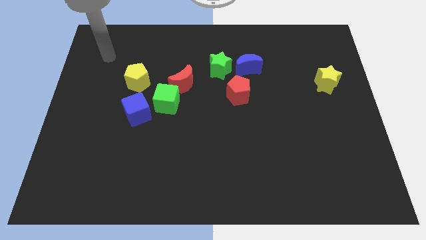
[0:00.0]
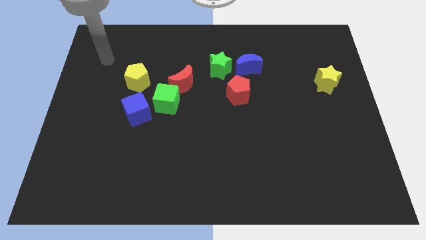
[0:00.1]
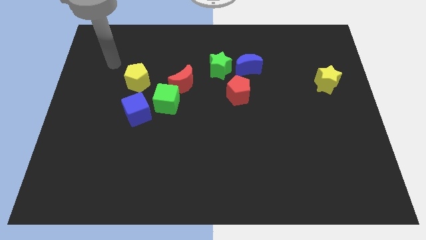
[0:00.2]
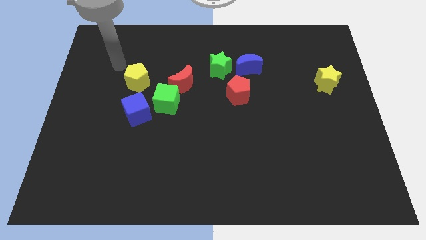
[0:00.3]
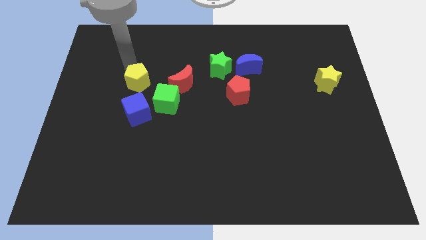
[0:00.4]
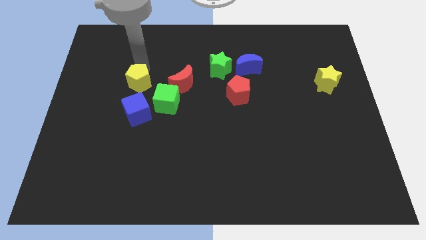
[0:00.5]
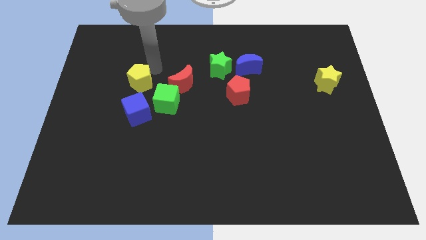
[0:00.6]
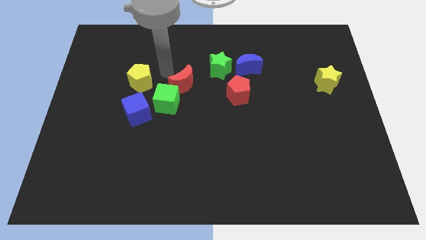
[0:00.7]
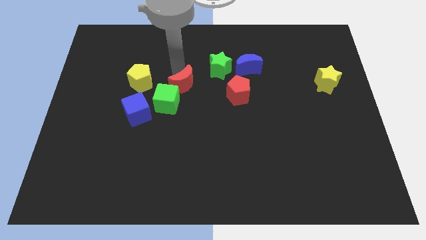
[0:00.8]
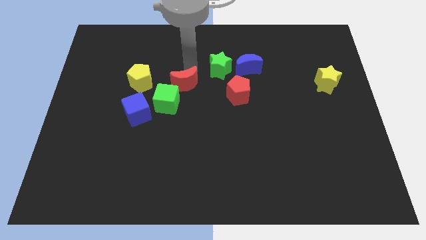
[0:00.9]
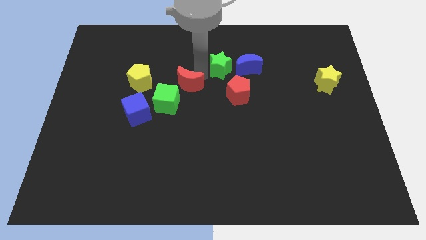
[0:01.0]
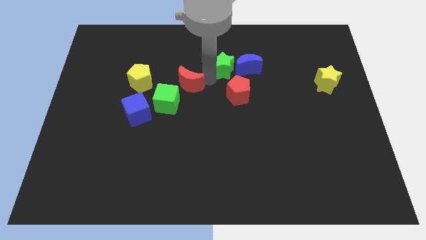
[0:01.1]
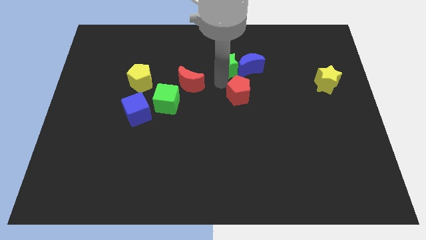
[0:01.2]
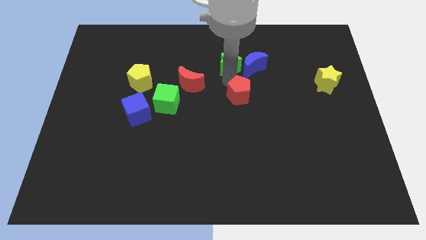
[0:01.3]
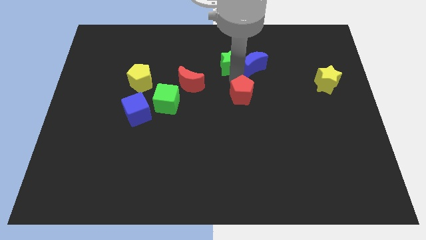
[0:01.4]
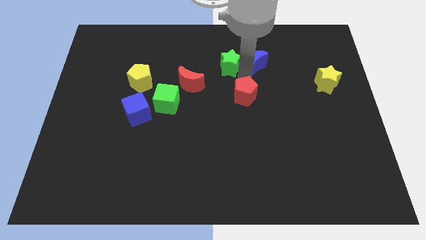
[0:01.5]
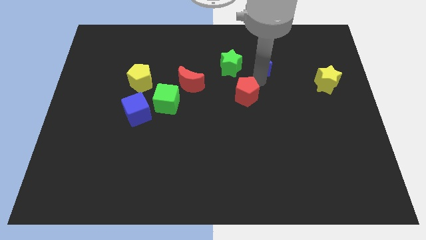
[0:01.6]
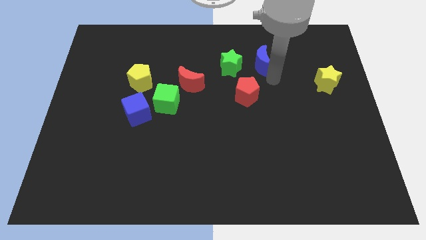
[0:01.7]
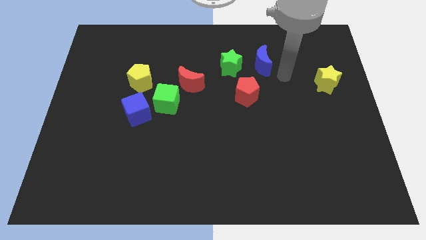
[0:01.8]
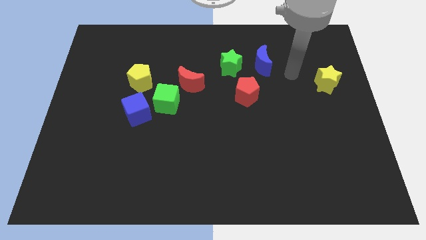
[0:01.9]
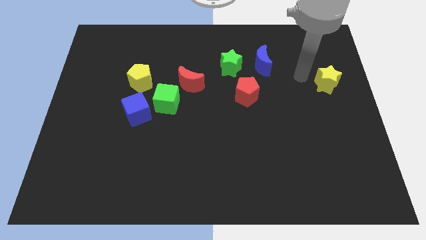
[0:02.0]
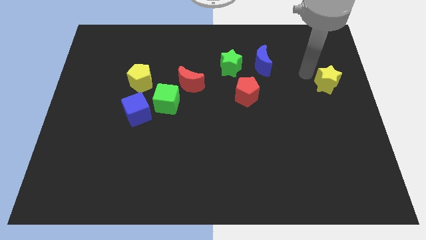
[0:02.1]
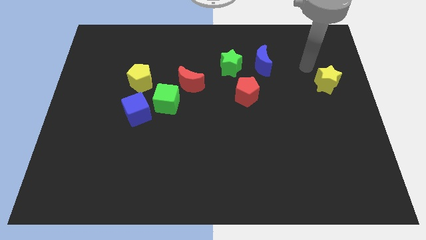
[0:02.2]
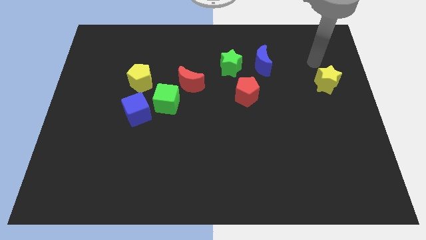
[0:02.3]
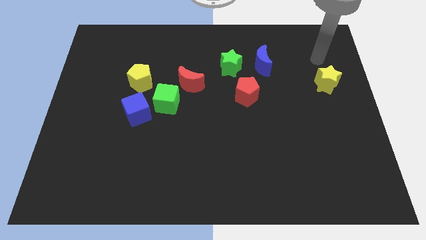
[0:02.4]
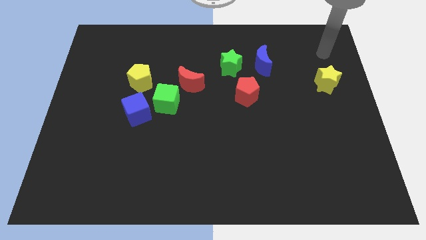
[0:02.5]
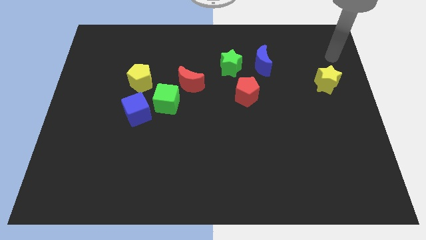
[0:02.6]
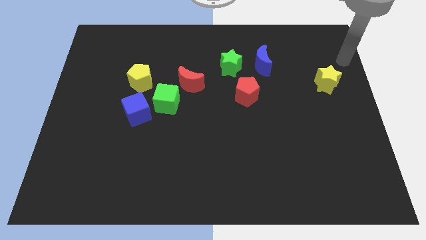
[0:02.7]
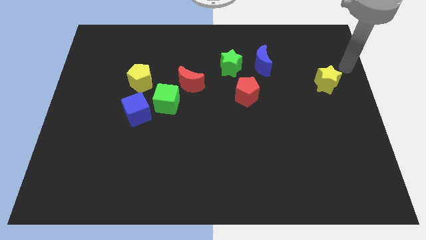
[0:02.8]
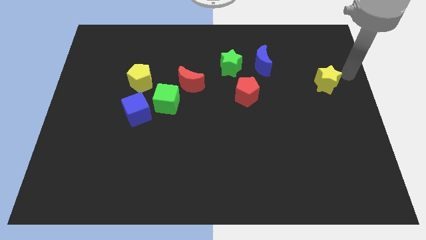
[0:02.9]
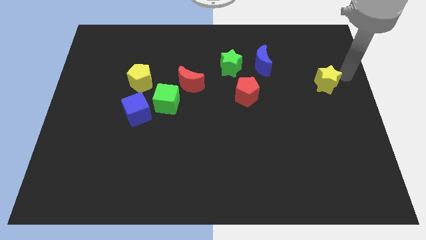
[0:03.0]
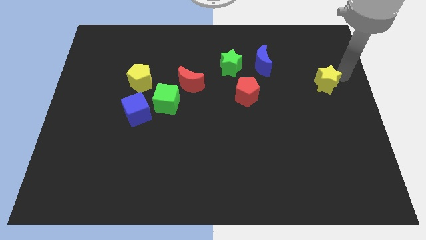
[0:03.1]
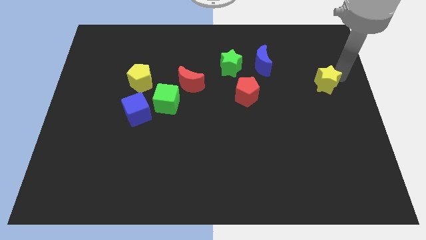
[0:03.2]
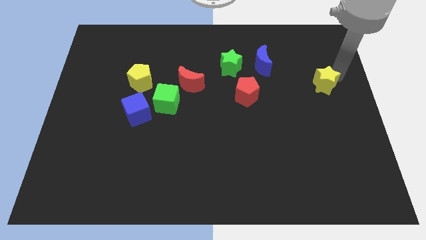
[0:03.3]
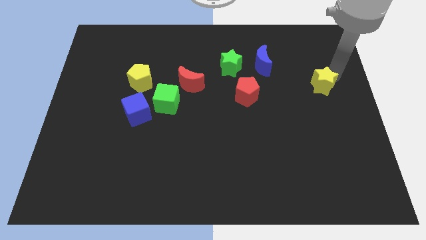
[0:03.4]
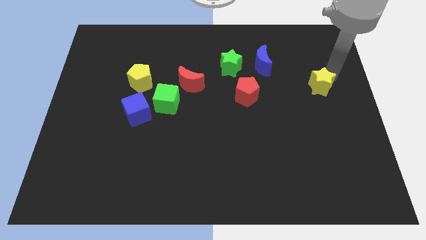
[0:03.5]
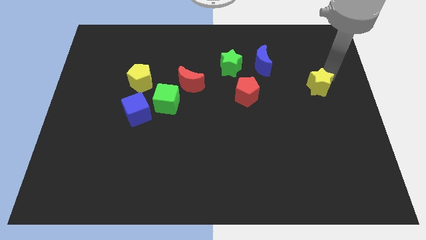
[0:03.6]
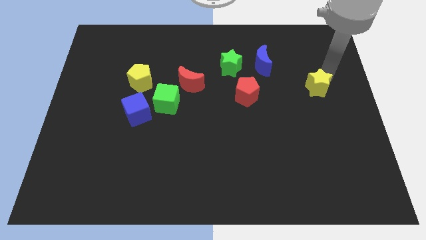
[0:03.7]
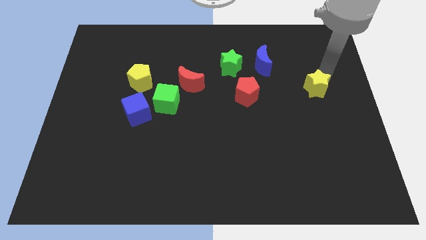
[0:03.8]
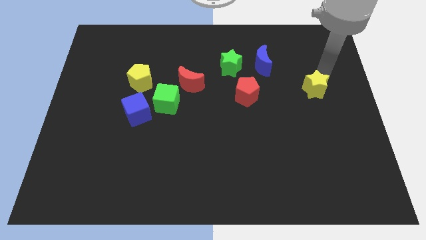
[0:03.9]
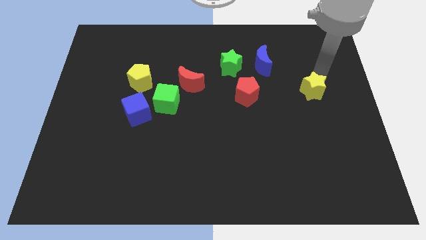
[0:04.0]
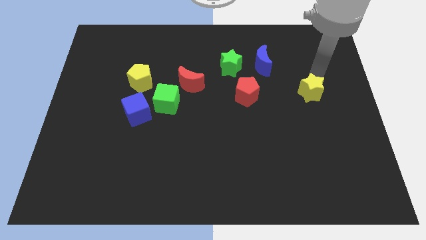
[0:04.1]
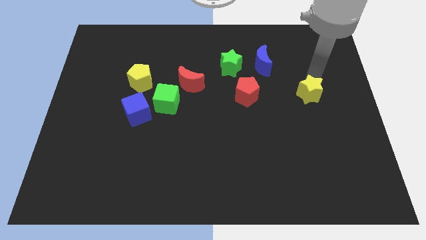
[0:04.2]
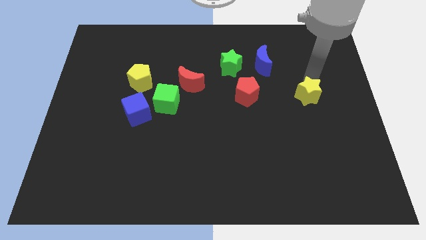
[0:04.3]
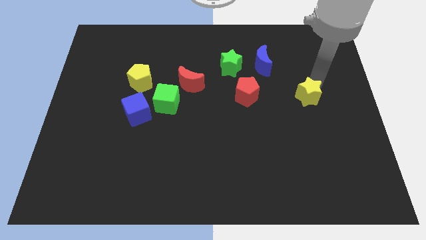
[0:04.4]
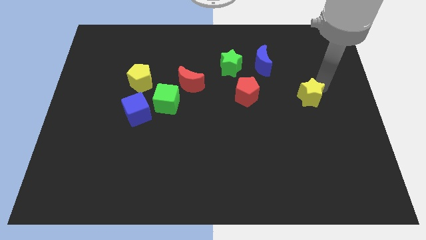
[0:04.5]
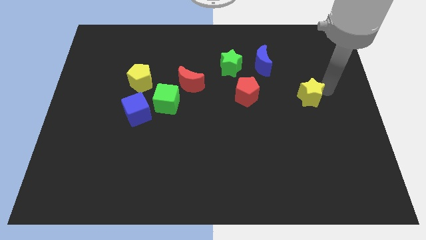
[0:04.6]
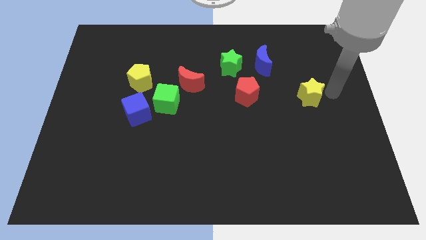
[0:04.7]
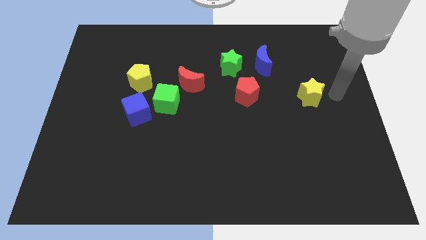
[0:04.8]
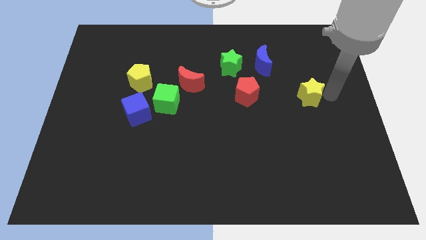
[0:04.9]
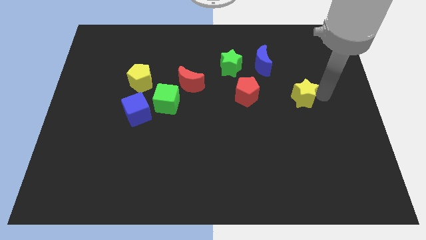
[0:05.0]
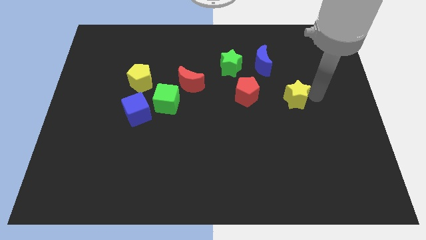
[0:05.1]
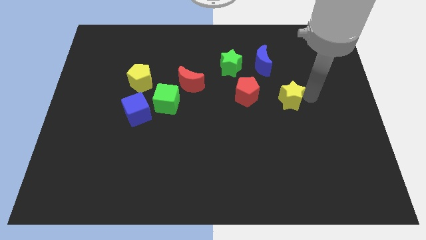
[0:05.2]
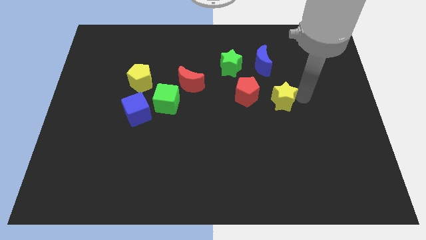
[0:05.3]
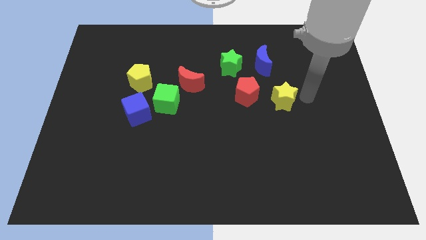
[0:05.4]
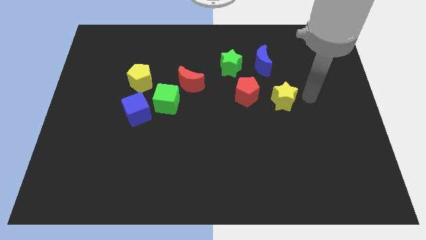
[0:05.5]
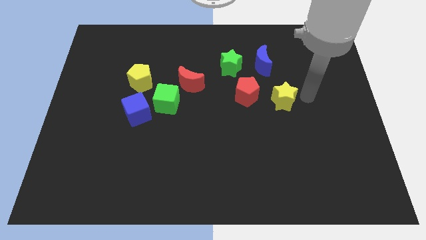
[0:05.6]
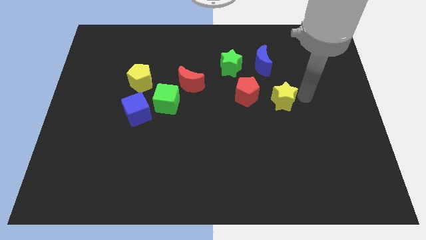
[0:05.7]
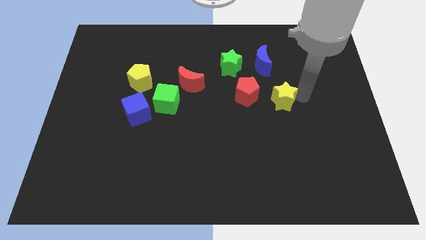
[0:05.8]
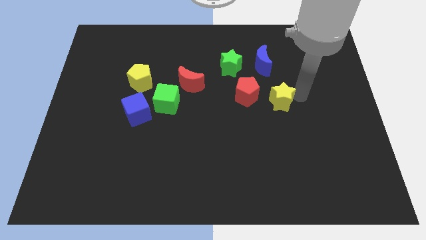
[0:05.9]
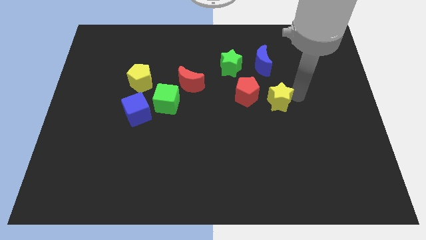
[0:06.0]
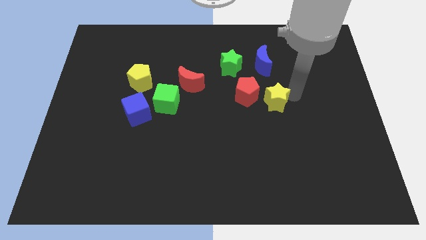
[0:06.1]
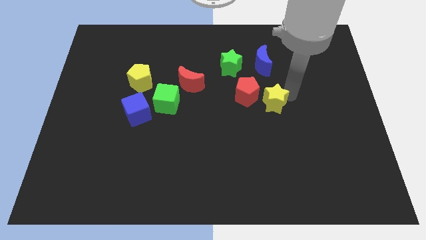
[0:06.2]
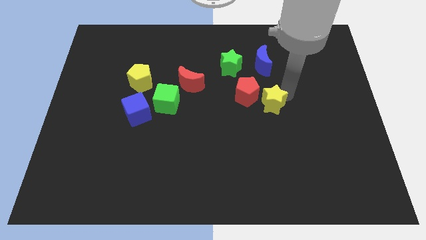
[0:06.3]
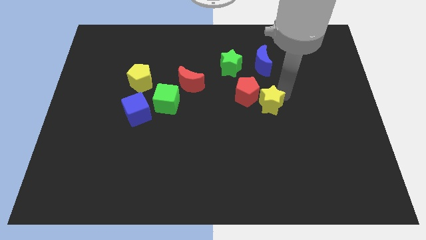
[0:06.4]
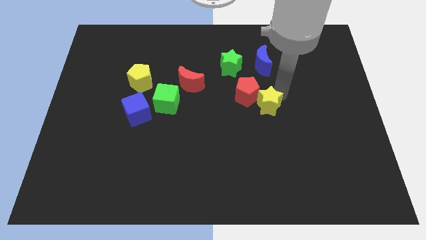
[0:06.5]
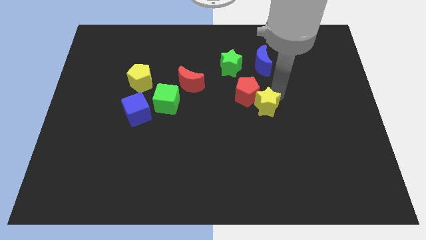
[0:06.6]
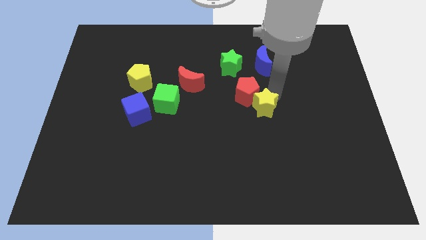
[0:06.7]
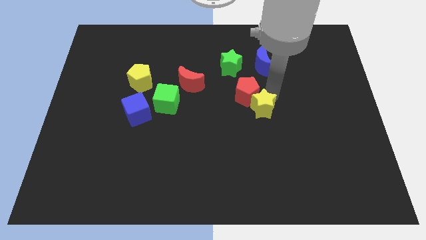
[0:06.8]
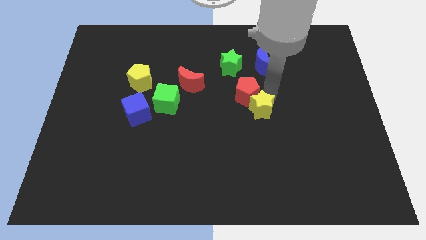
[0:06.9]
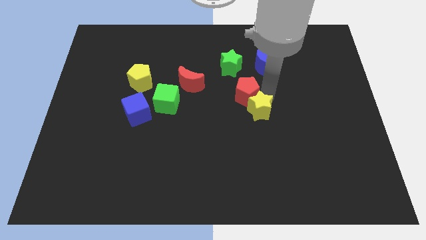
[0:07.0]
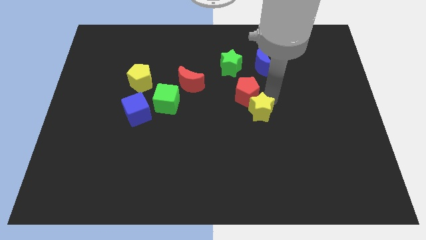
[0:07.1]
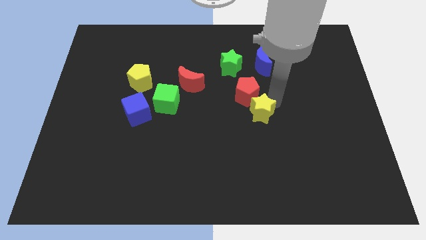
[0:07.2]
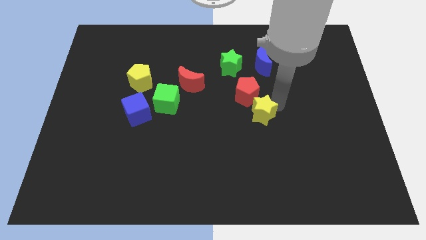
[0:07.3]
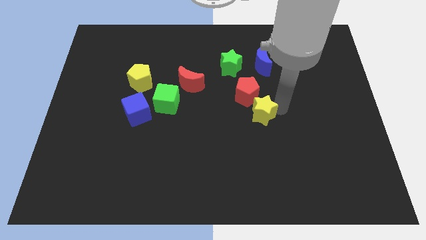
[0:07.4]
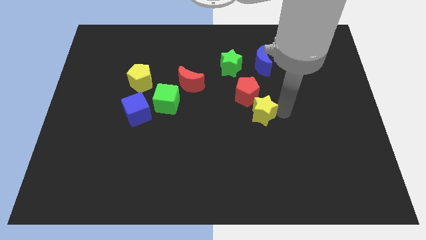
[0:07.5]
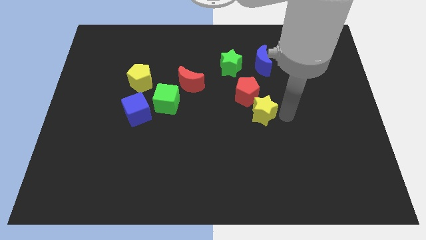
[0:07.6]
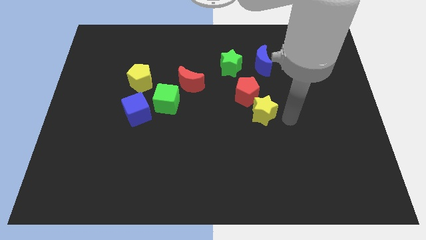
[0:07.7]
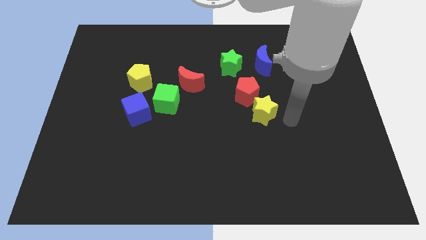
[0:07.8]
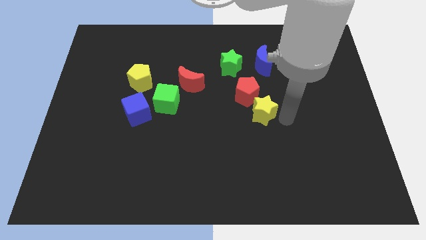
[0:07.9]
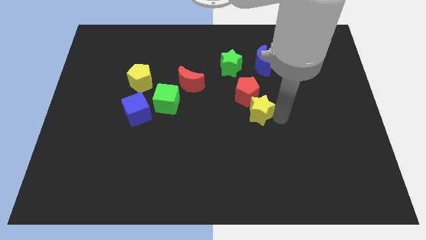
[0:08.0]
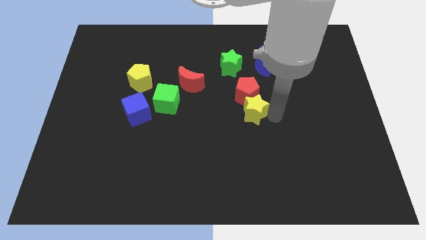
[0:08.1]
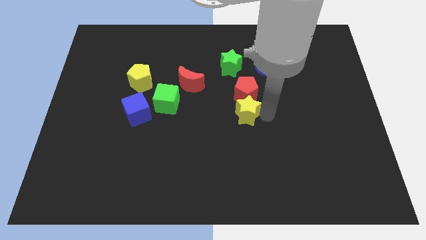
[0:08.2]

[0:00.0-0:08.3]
put the yellow star to the bottom side of the green star
